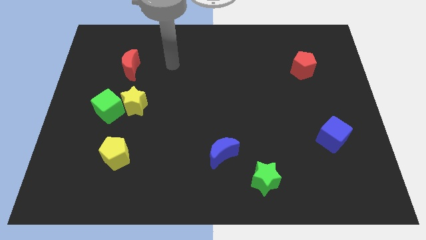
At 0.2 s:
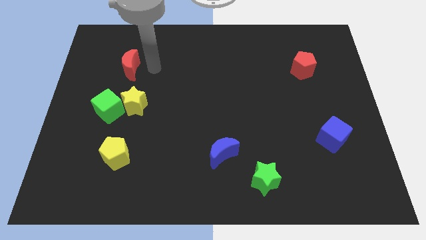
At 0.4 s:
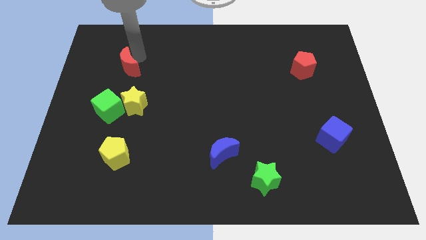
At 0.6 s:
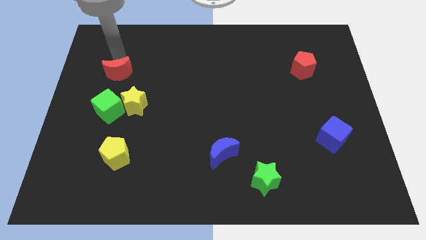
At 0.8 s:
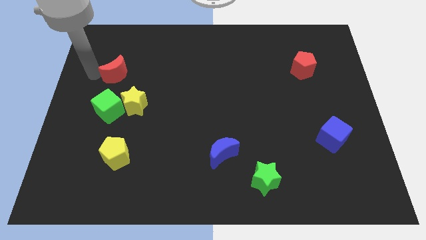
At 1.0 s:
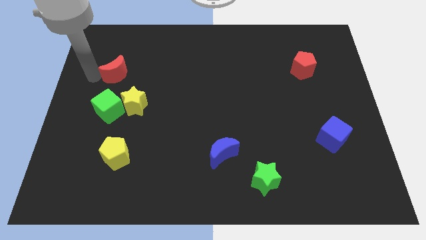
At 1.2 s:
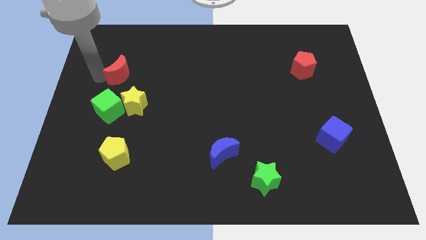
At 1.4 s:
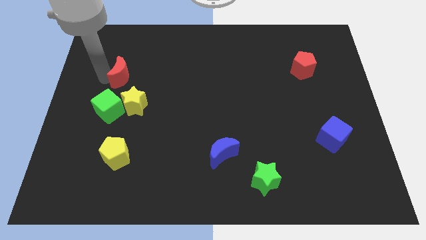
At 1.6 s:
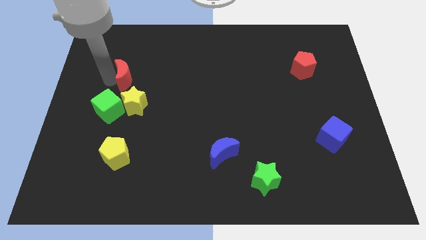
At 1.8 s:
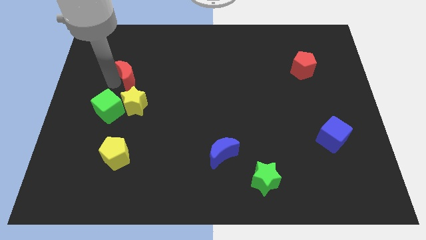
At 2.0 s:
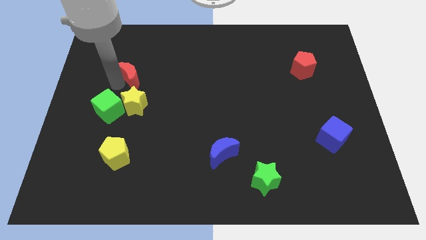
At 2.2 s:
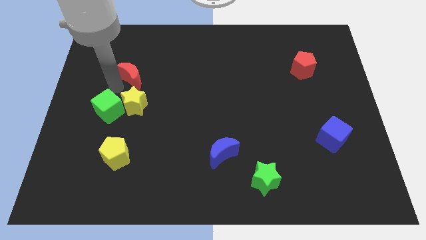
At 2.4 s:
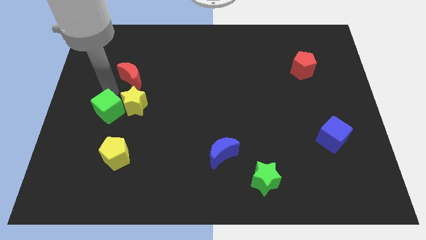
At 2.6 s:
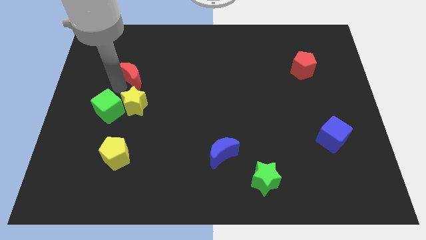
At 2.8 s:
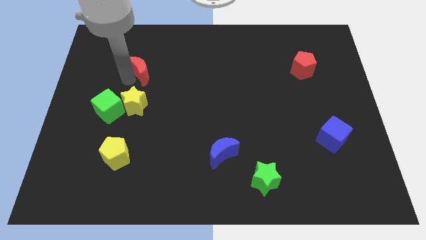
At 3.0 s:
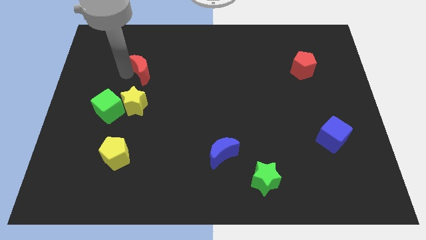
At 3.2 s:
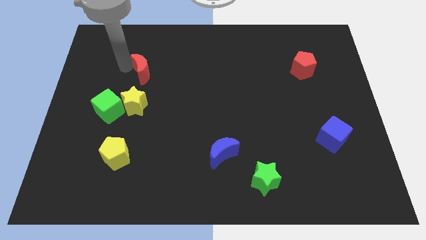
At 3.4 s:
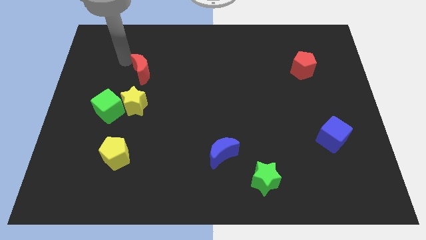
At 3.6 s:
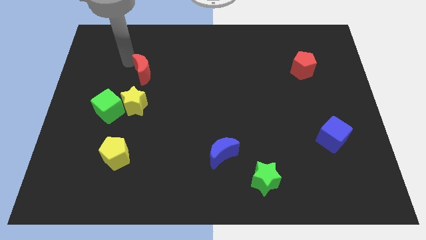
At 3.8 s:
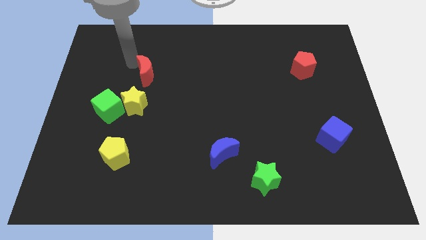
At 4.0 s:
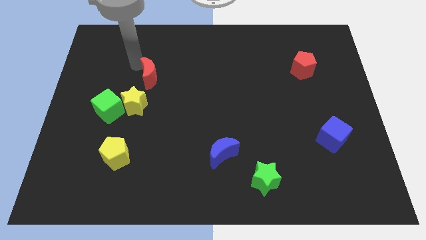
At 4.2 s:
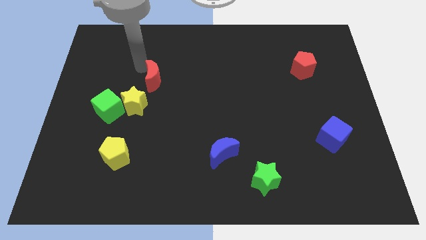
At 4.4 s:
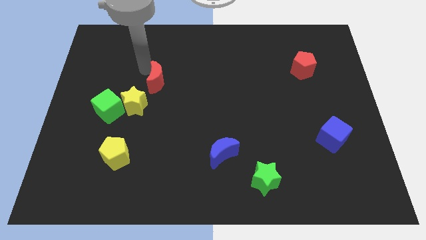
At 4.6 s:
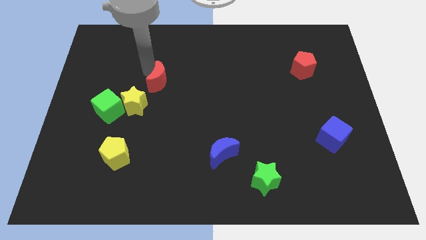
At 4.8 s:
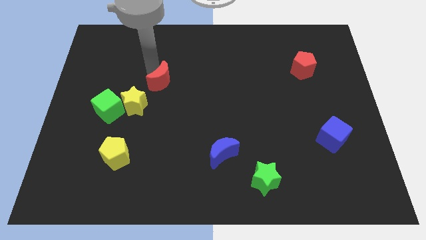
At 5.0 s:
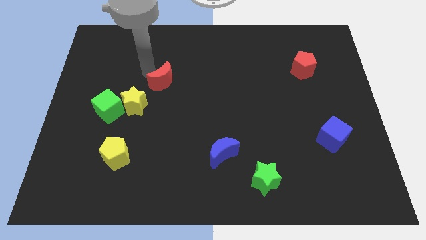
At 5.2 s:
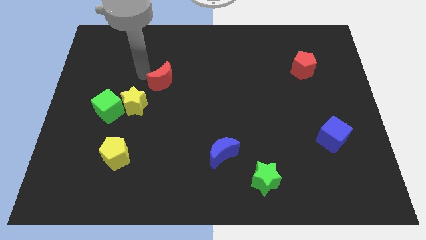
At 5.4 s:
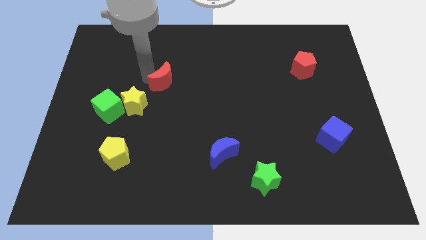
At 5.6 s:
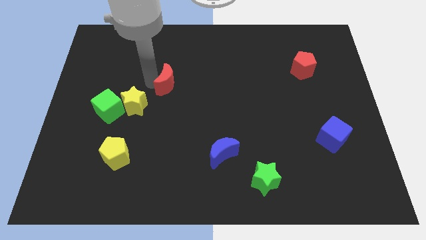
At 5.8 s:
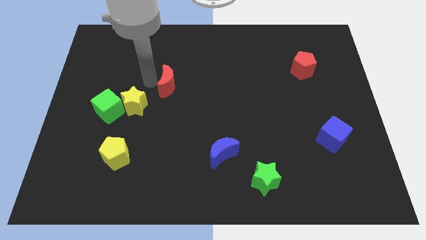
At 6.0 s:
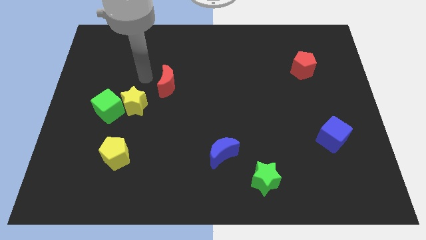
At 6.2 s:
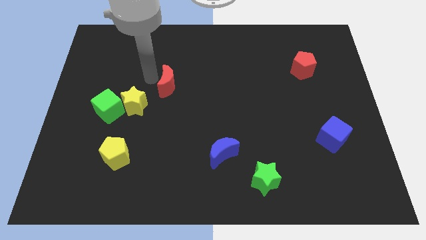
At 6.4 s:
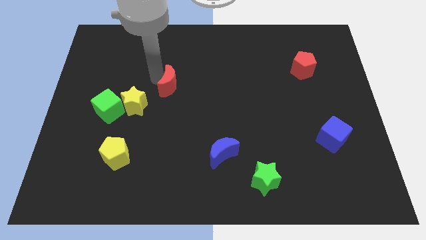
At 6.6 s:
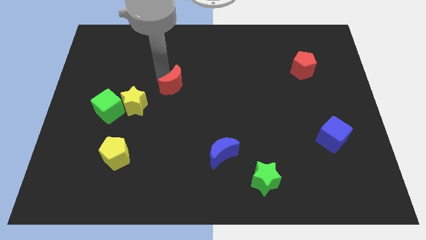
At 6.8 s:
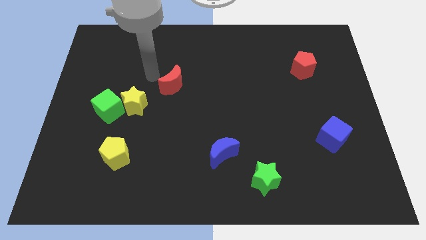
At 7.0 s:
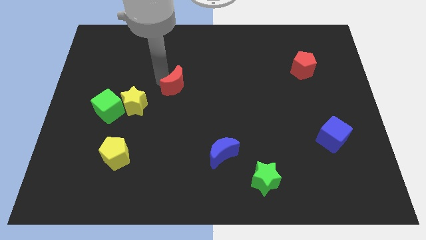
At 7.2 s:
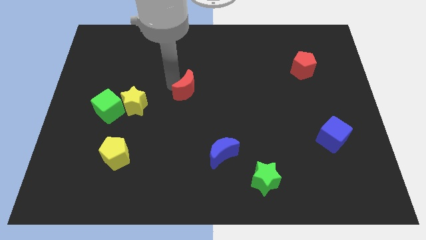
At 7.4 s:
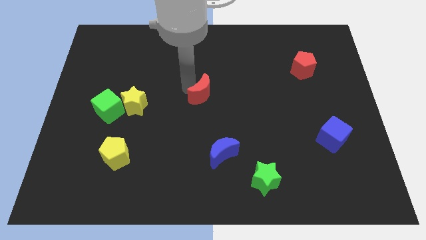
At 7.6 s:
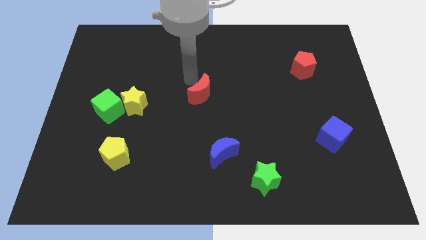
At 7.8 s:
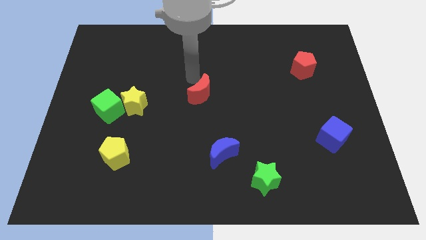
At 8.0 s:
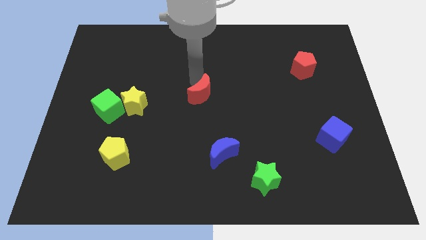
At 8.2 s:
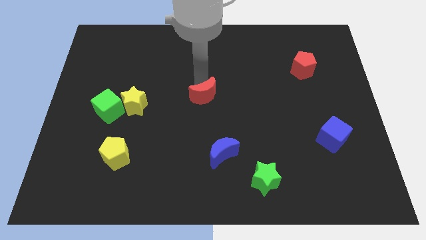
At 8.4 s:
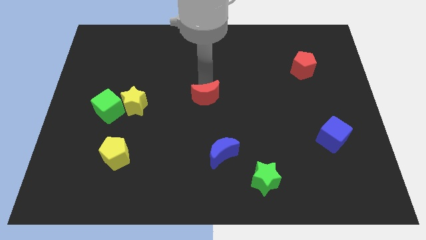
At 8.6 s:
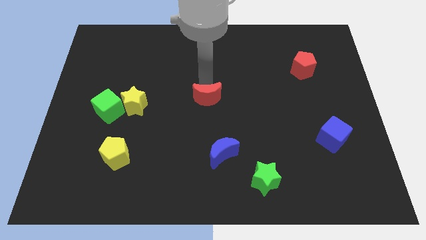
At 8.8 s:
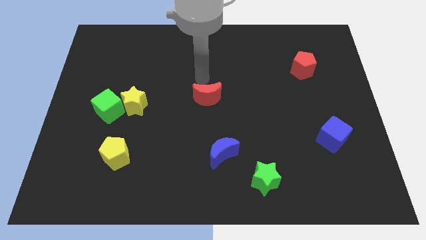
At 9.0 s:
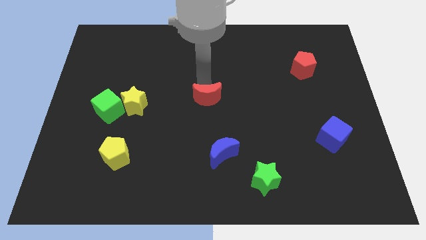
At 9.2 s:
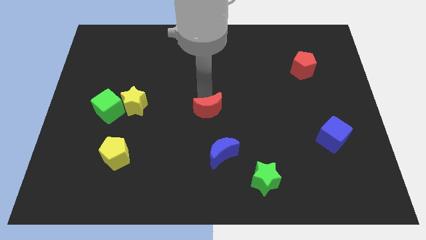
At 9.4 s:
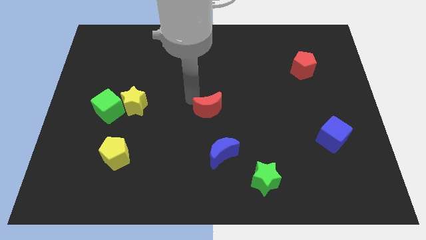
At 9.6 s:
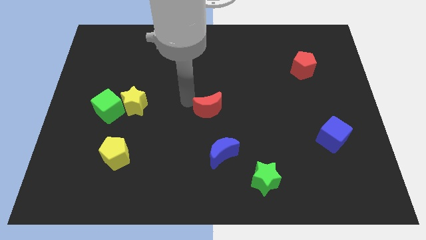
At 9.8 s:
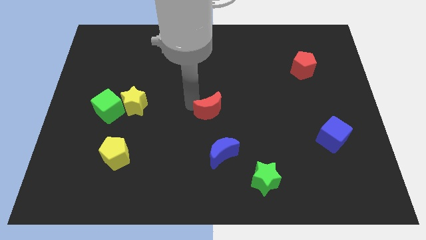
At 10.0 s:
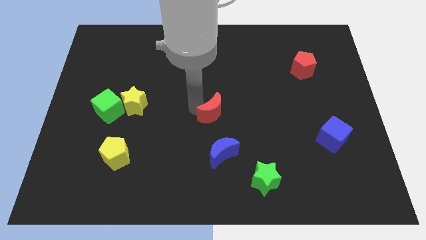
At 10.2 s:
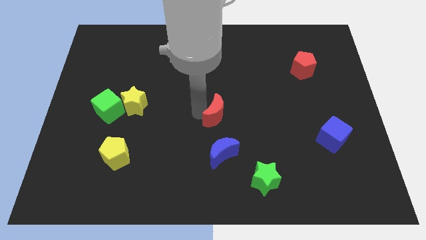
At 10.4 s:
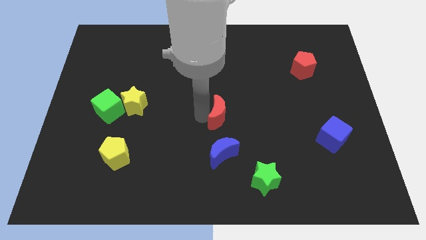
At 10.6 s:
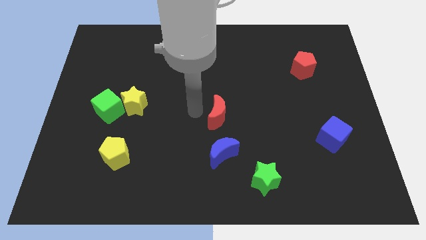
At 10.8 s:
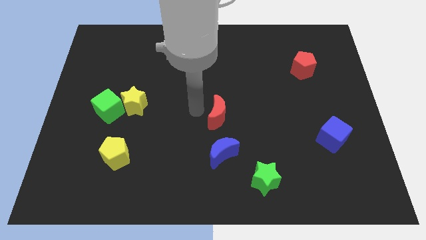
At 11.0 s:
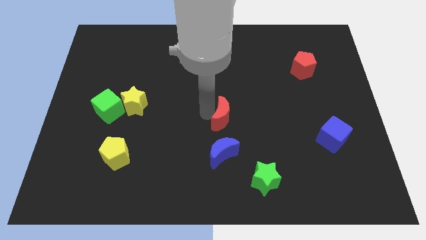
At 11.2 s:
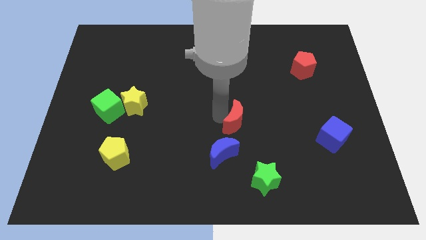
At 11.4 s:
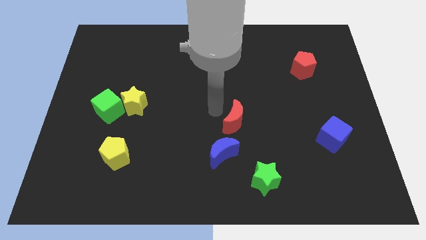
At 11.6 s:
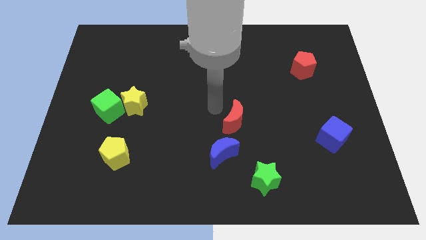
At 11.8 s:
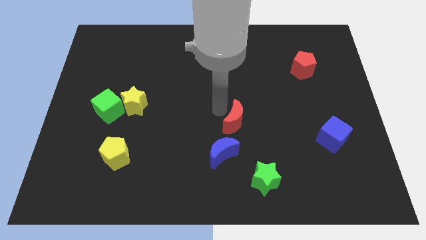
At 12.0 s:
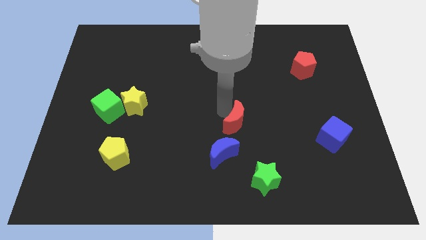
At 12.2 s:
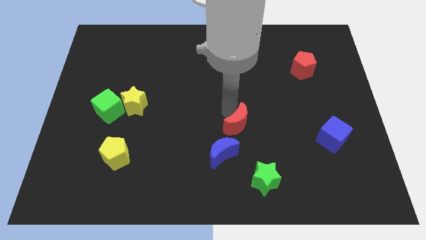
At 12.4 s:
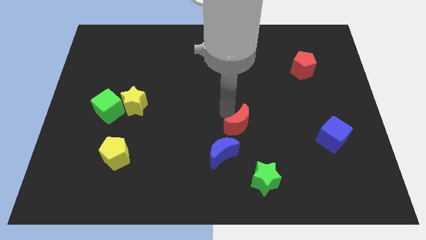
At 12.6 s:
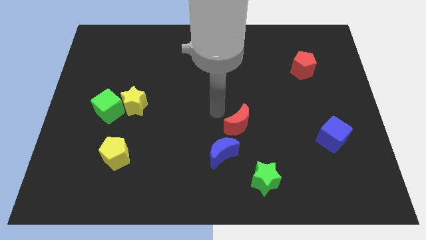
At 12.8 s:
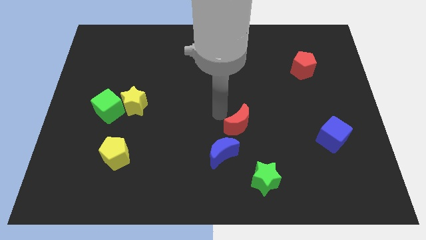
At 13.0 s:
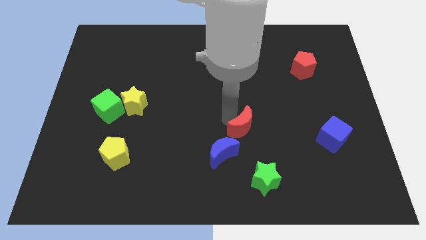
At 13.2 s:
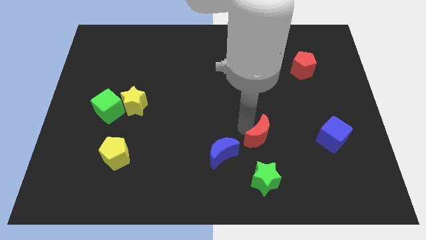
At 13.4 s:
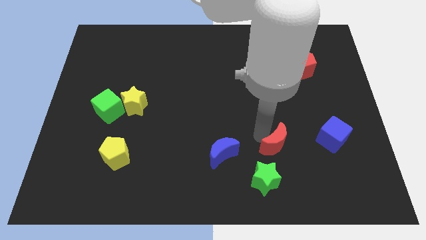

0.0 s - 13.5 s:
move the red moon to the top right side of the green star

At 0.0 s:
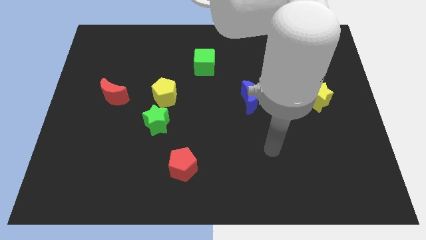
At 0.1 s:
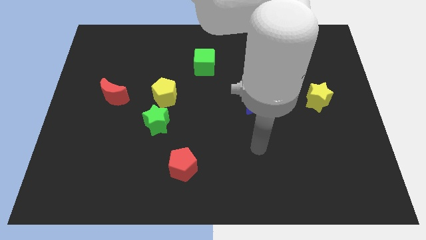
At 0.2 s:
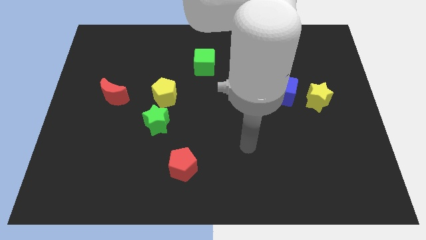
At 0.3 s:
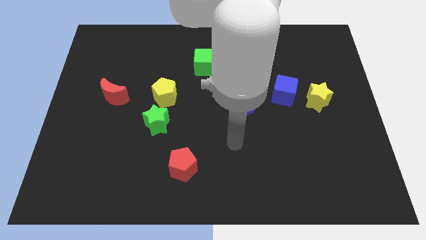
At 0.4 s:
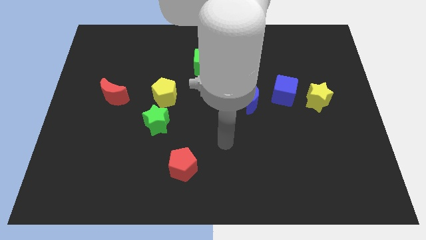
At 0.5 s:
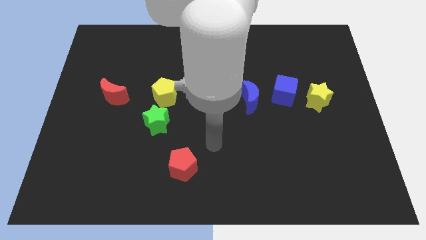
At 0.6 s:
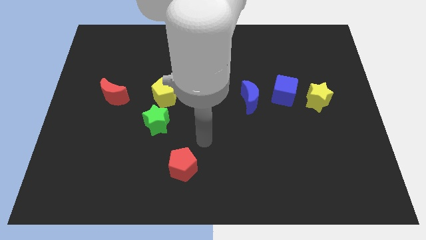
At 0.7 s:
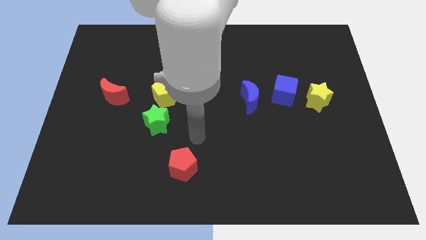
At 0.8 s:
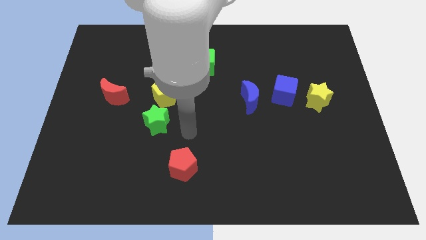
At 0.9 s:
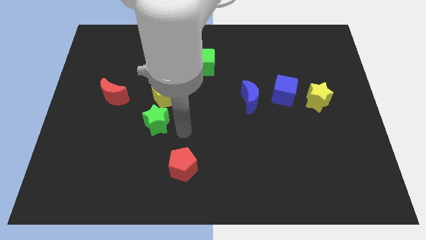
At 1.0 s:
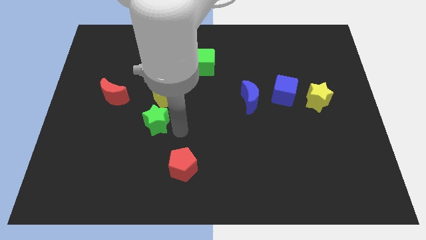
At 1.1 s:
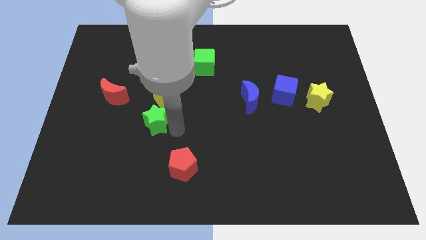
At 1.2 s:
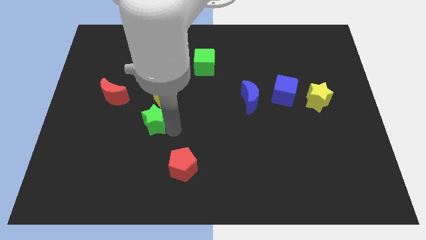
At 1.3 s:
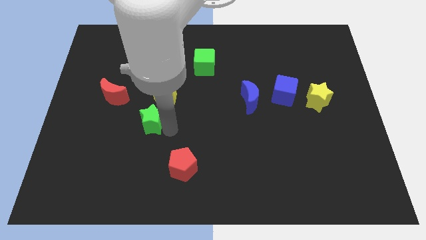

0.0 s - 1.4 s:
push the green star to the bottom right side of the red moon
